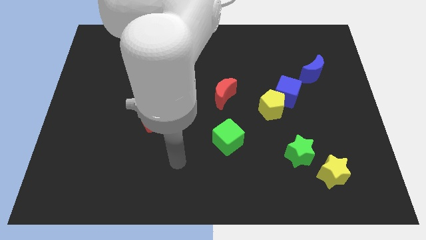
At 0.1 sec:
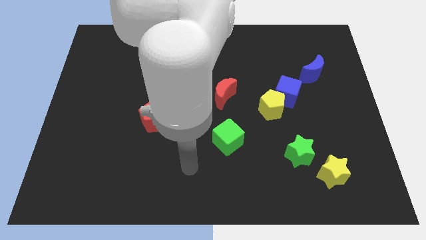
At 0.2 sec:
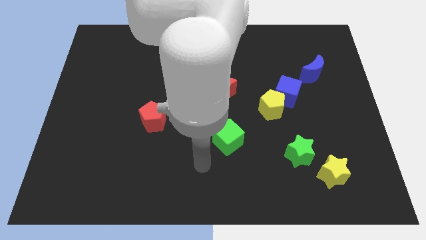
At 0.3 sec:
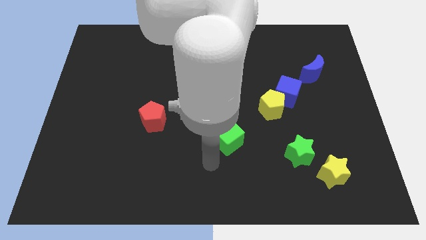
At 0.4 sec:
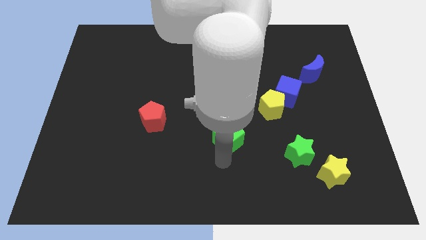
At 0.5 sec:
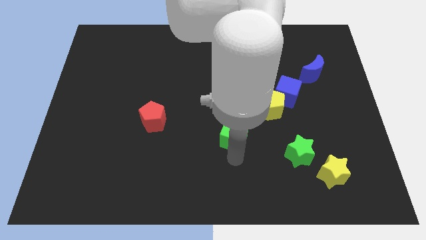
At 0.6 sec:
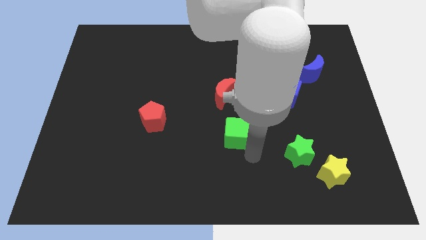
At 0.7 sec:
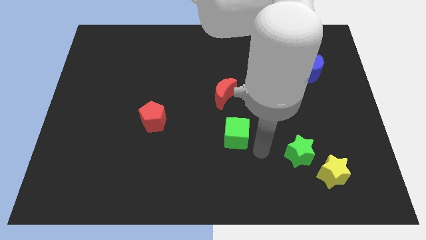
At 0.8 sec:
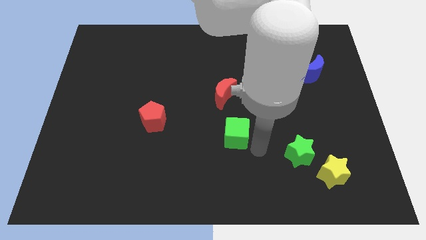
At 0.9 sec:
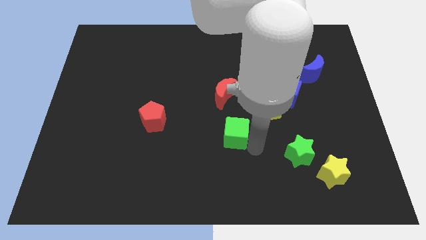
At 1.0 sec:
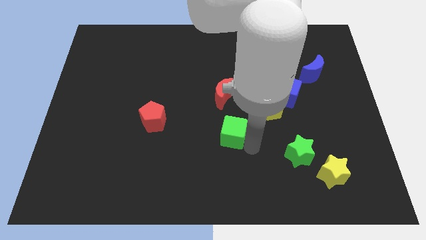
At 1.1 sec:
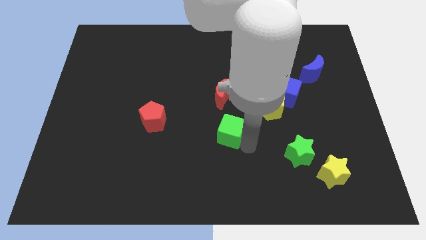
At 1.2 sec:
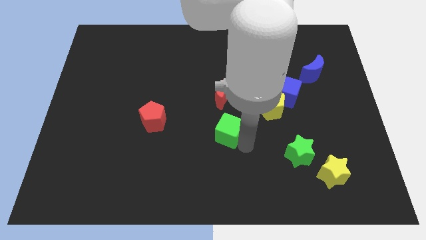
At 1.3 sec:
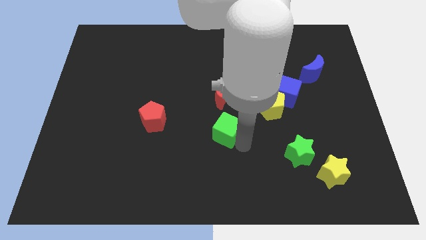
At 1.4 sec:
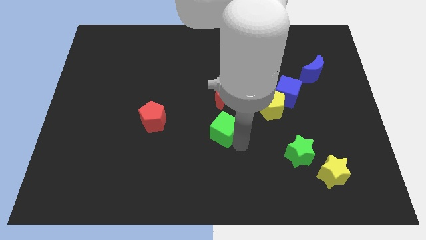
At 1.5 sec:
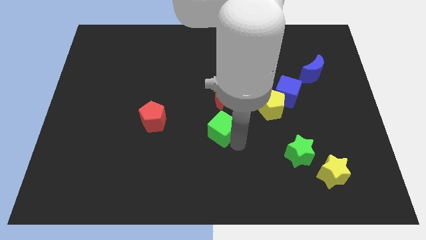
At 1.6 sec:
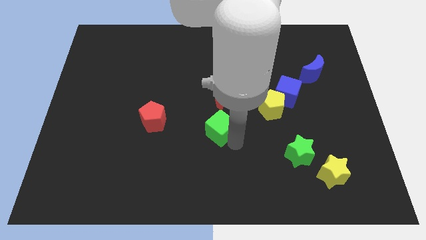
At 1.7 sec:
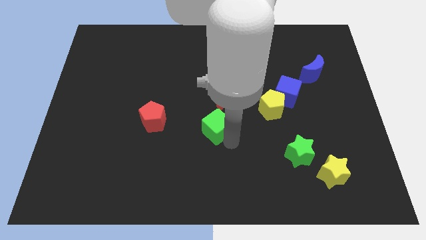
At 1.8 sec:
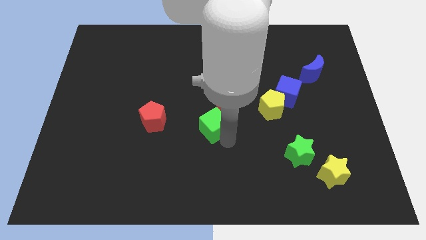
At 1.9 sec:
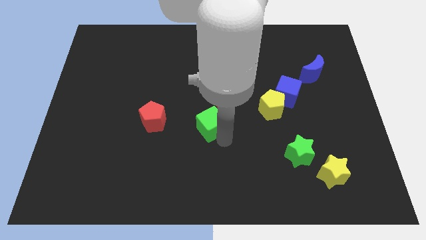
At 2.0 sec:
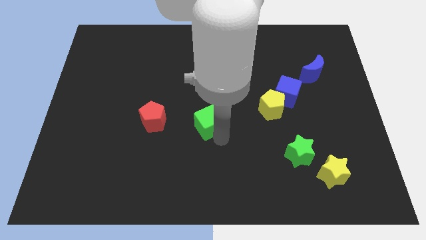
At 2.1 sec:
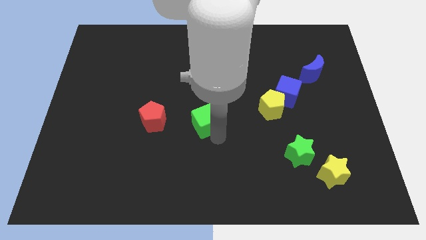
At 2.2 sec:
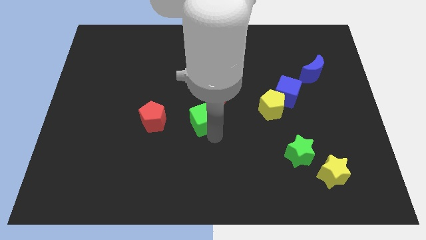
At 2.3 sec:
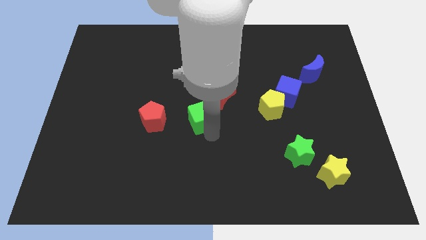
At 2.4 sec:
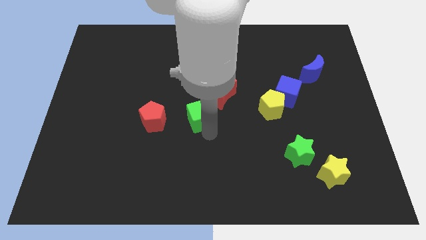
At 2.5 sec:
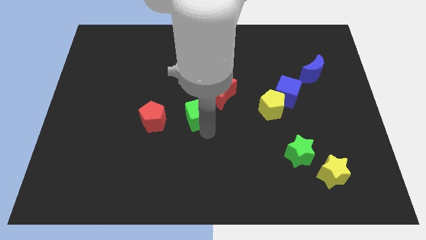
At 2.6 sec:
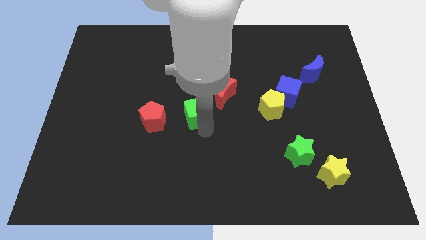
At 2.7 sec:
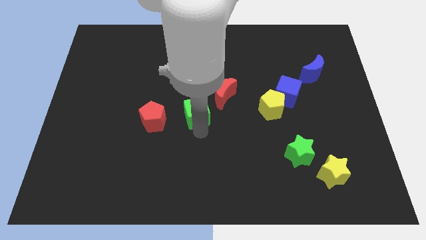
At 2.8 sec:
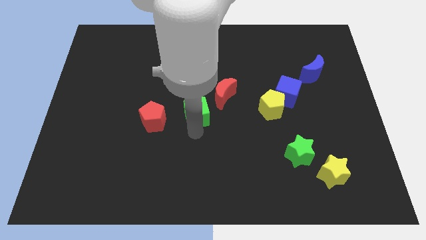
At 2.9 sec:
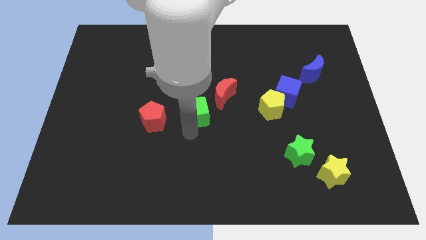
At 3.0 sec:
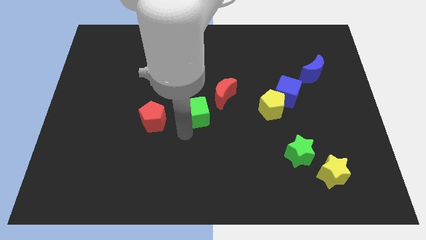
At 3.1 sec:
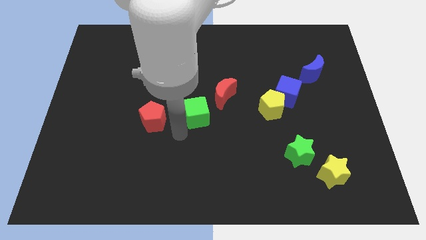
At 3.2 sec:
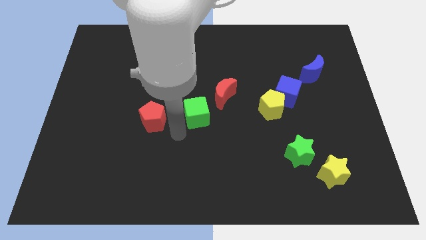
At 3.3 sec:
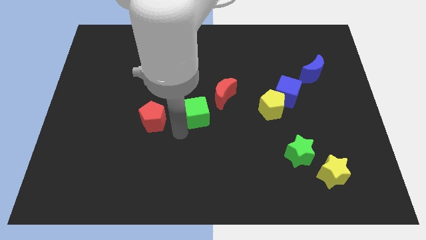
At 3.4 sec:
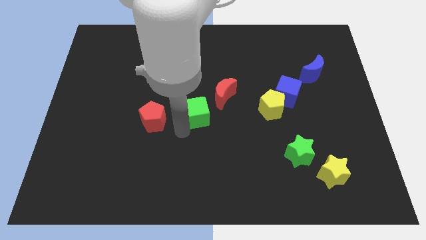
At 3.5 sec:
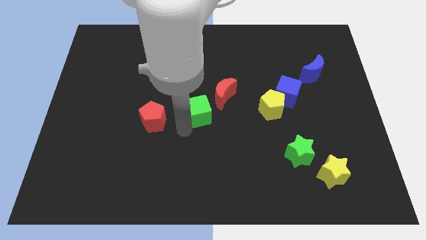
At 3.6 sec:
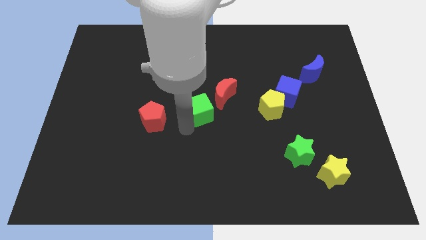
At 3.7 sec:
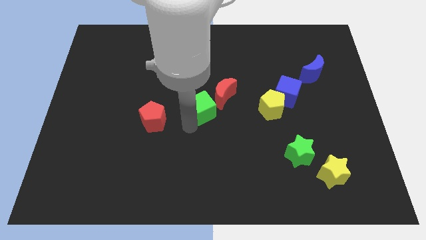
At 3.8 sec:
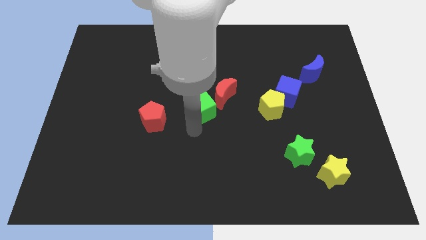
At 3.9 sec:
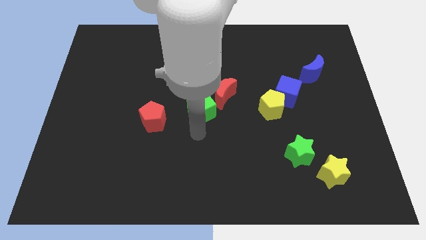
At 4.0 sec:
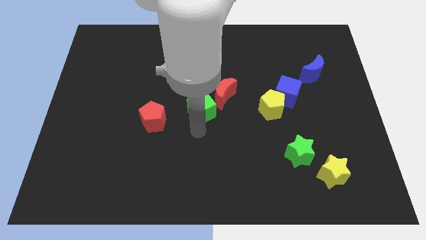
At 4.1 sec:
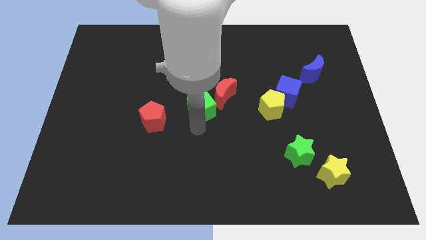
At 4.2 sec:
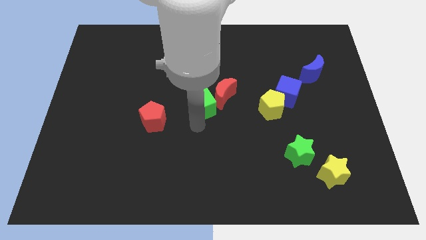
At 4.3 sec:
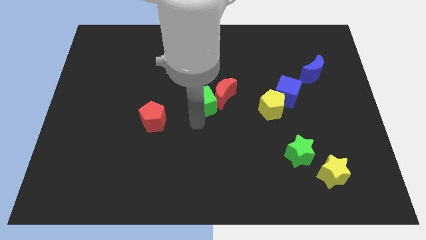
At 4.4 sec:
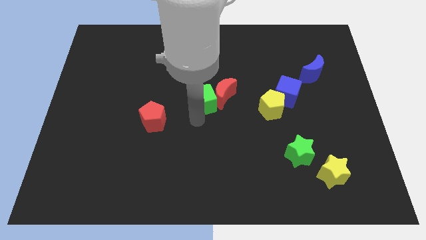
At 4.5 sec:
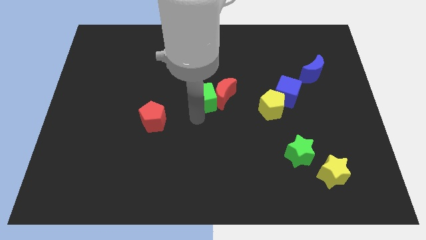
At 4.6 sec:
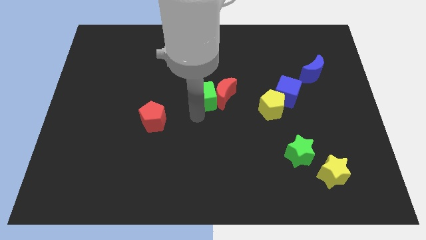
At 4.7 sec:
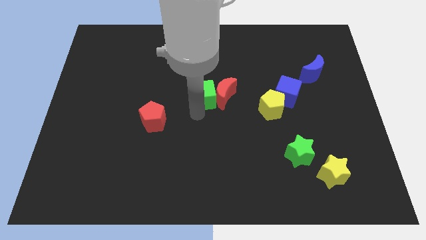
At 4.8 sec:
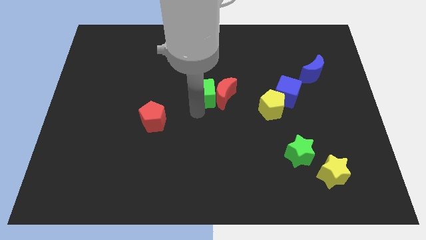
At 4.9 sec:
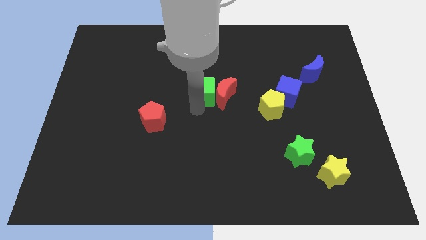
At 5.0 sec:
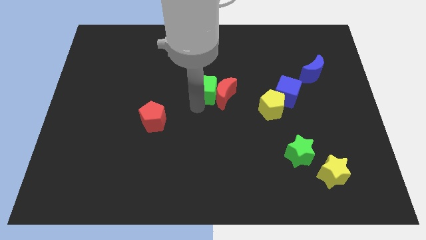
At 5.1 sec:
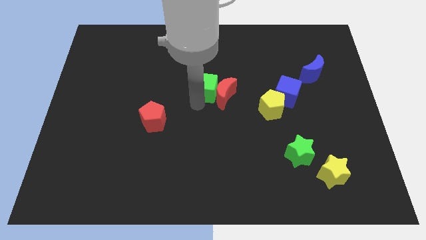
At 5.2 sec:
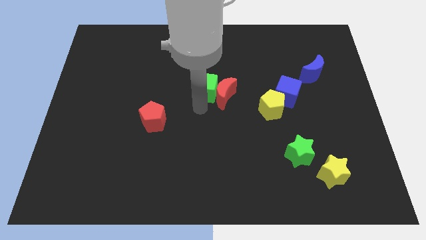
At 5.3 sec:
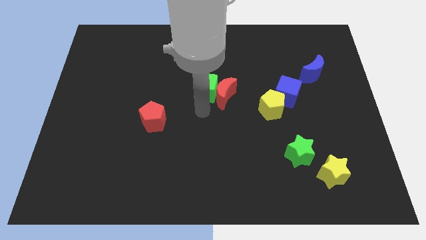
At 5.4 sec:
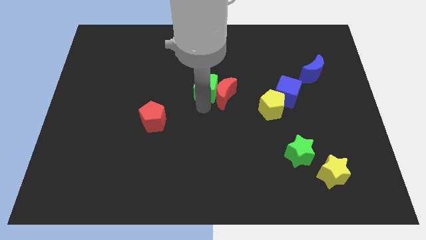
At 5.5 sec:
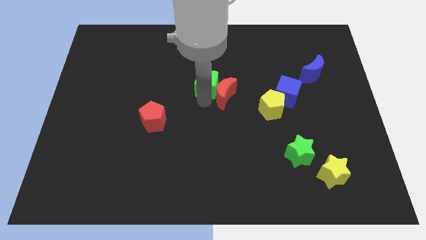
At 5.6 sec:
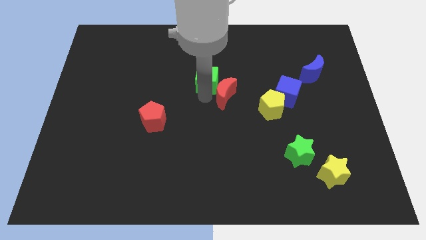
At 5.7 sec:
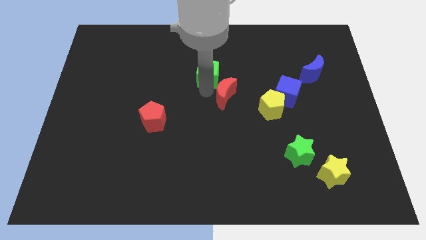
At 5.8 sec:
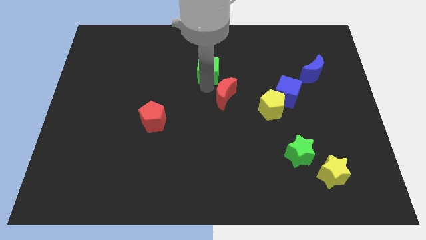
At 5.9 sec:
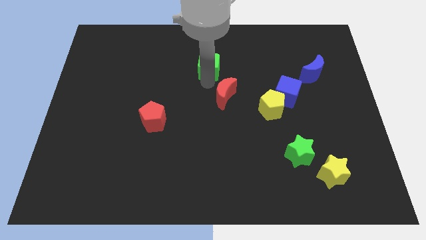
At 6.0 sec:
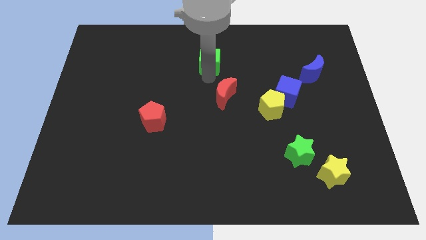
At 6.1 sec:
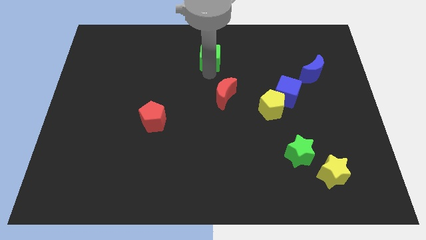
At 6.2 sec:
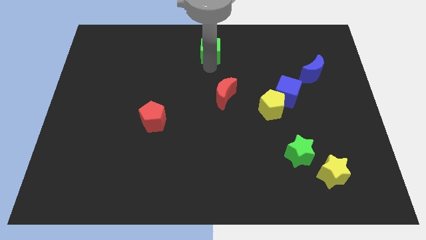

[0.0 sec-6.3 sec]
put the green cube to the top
